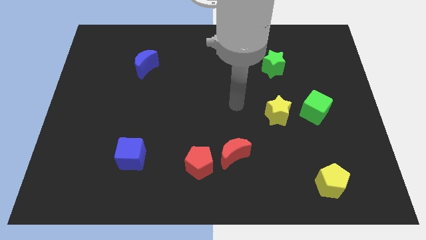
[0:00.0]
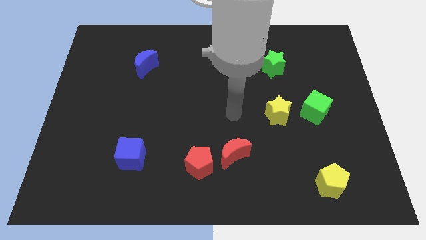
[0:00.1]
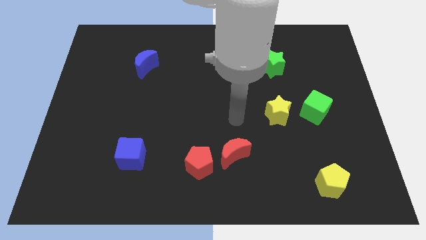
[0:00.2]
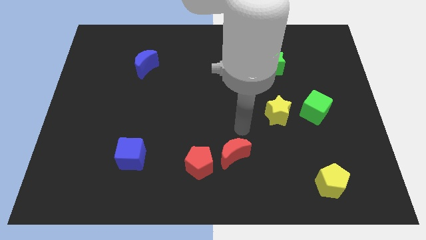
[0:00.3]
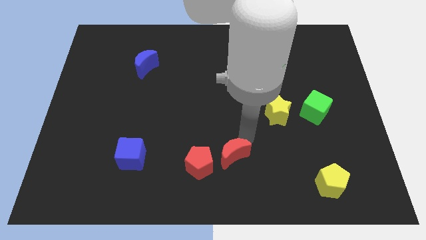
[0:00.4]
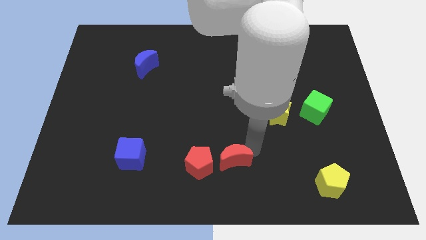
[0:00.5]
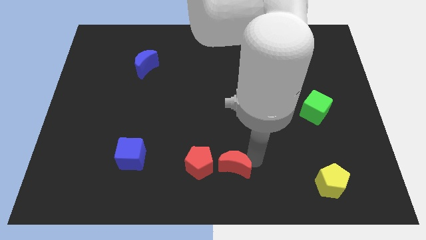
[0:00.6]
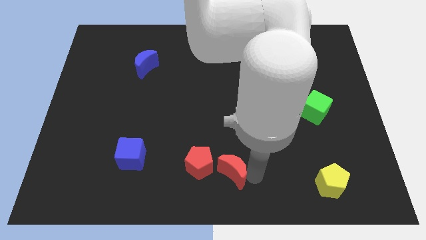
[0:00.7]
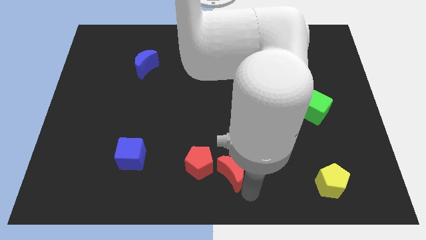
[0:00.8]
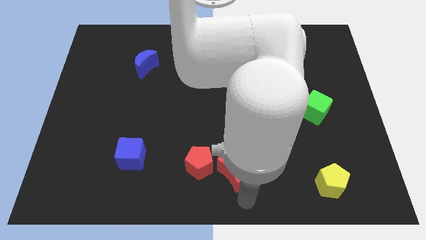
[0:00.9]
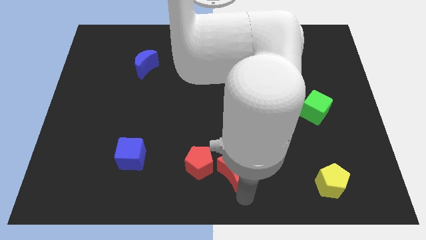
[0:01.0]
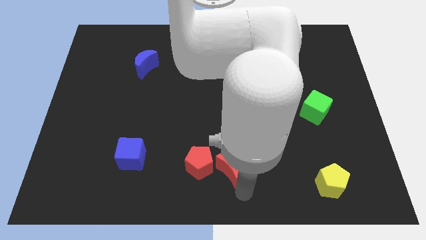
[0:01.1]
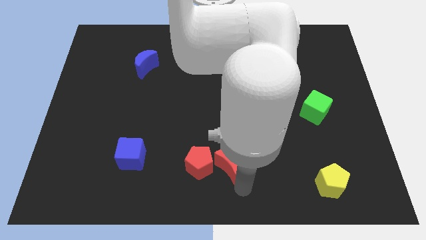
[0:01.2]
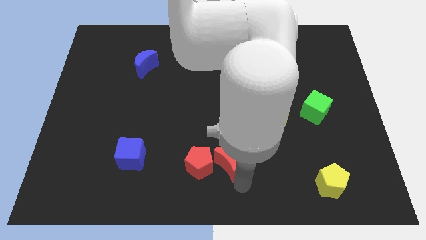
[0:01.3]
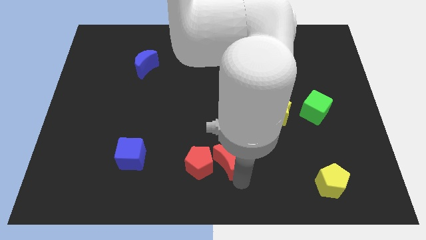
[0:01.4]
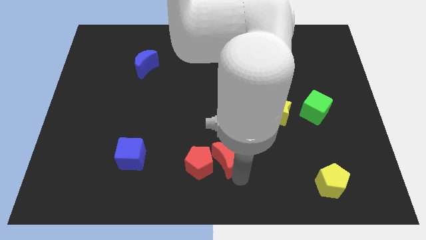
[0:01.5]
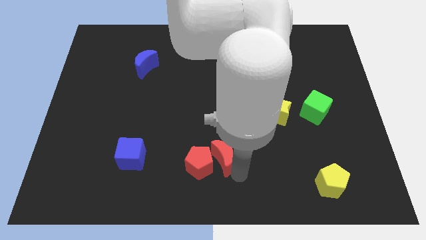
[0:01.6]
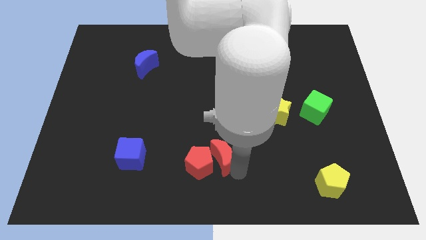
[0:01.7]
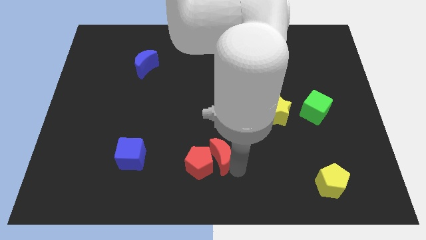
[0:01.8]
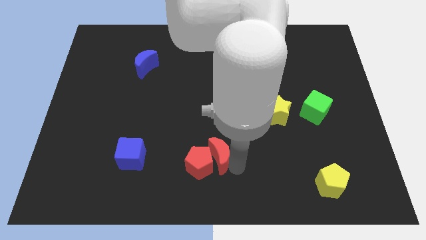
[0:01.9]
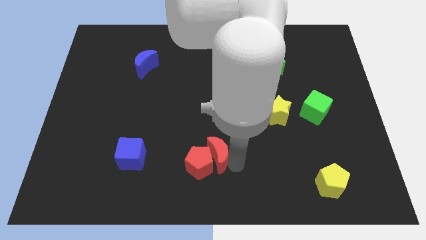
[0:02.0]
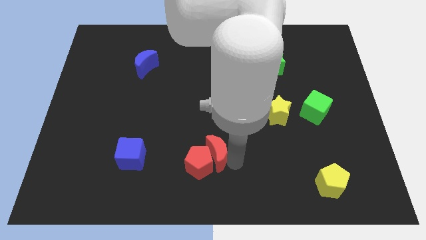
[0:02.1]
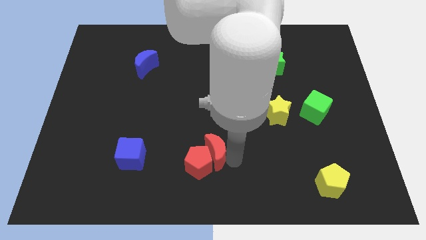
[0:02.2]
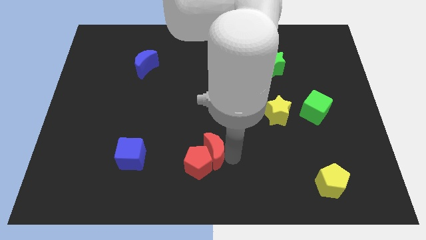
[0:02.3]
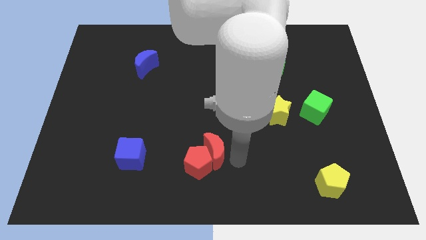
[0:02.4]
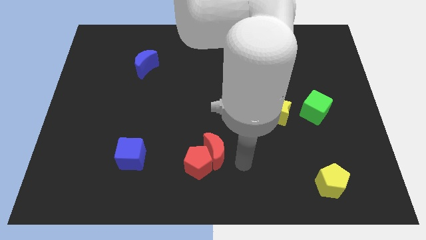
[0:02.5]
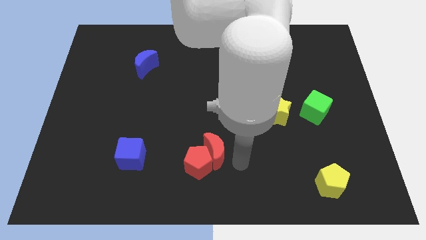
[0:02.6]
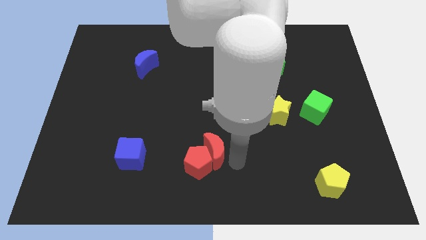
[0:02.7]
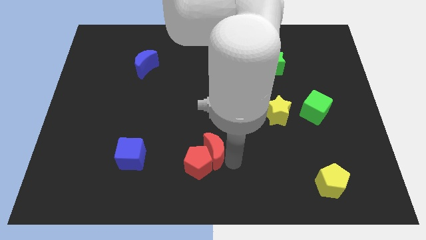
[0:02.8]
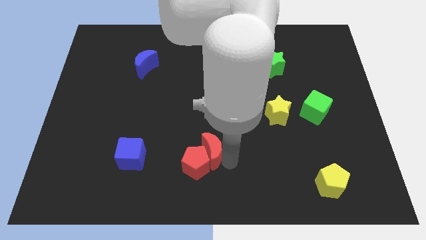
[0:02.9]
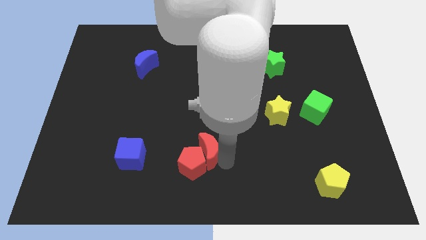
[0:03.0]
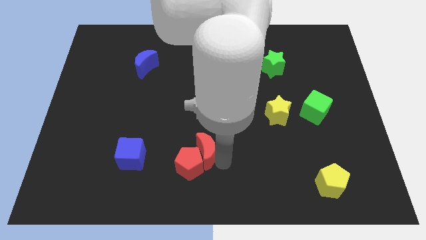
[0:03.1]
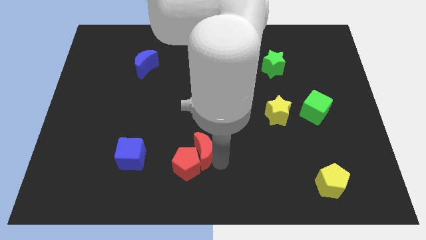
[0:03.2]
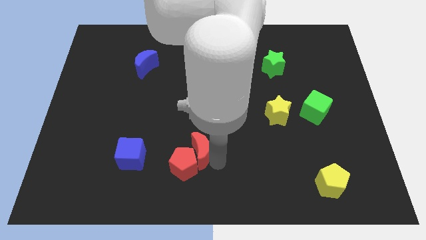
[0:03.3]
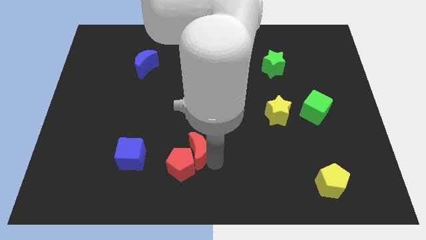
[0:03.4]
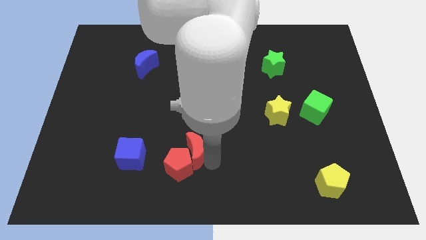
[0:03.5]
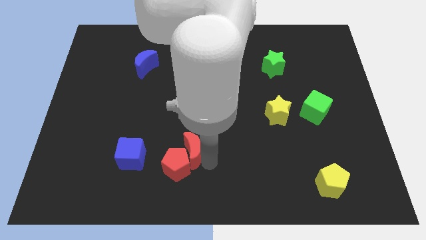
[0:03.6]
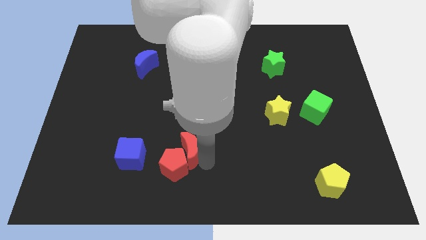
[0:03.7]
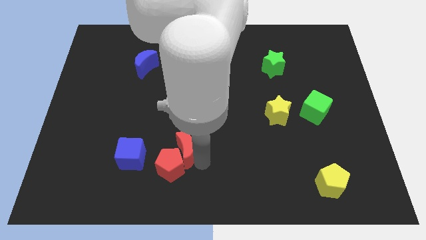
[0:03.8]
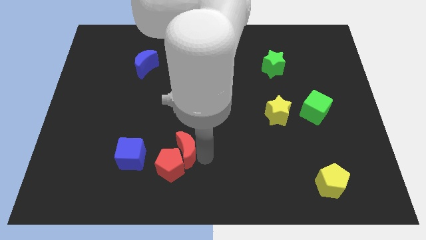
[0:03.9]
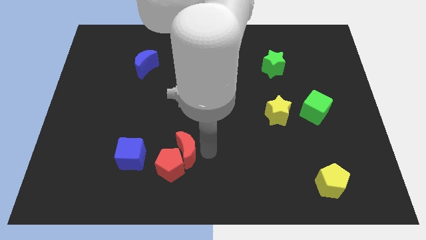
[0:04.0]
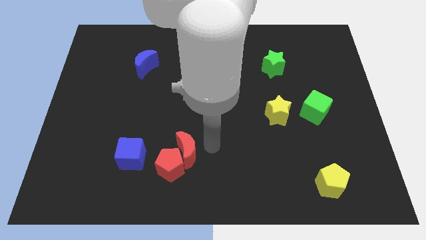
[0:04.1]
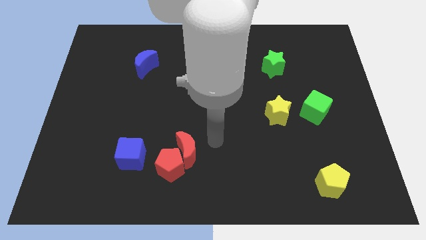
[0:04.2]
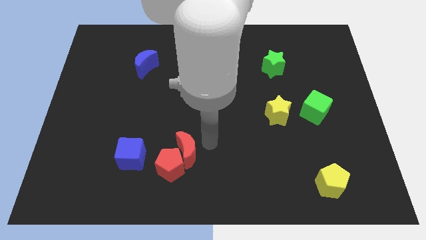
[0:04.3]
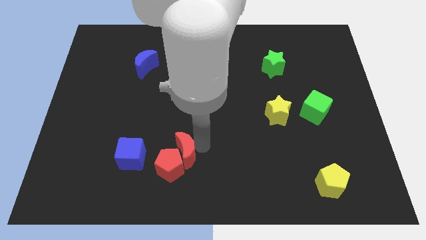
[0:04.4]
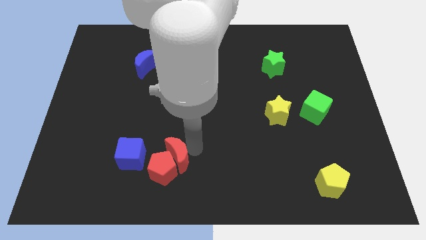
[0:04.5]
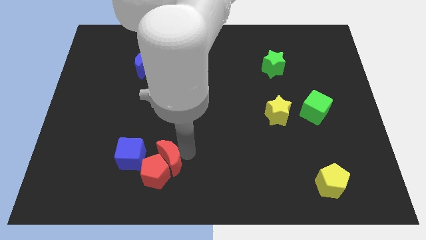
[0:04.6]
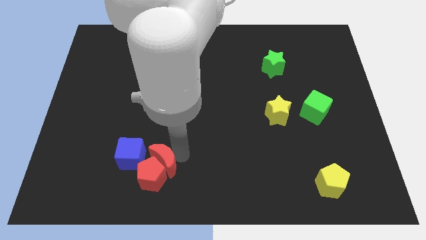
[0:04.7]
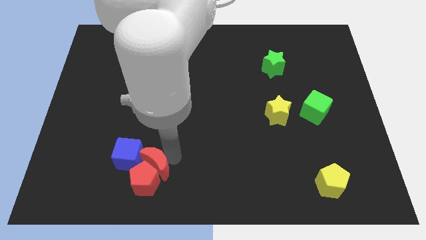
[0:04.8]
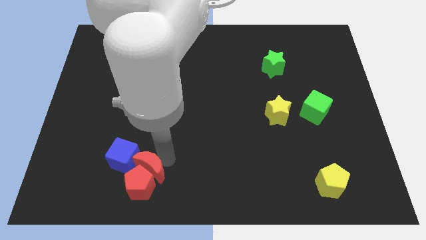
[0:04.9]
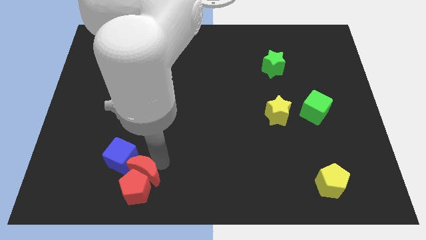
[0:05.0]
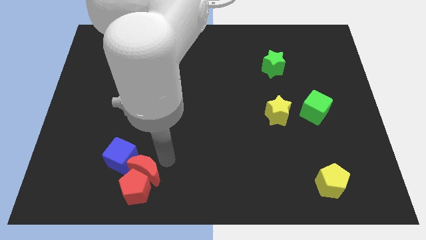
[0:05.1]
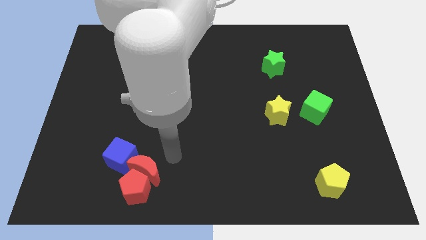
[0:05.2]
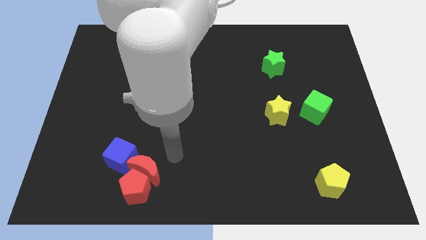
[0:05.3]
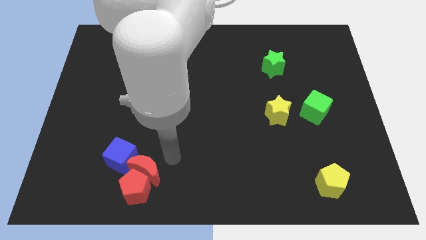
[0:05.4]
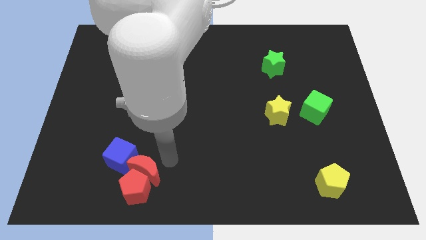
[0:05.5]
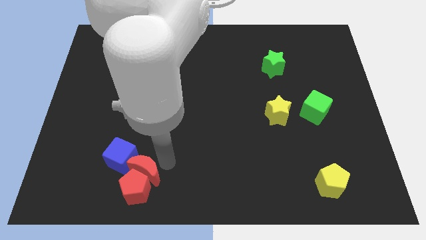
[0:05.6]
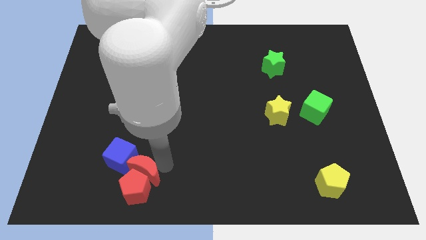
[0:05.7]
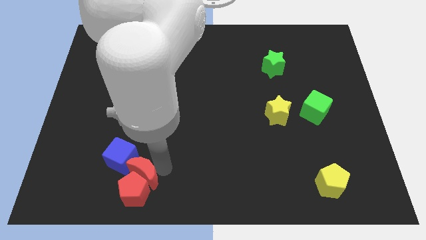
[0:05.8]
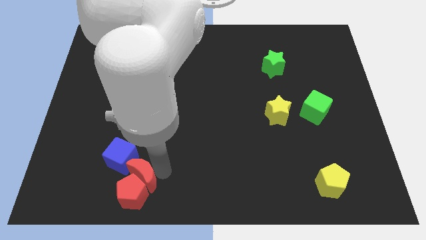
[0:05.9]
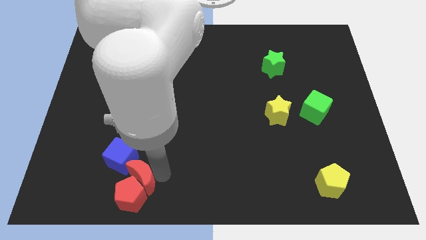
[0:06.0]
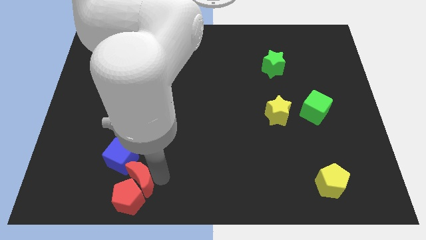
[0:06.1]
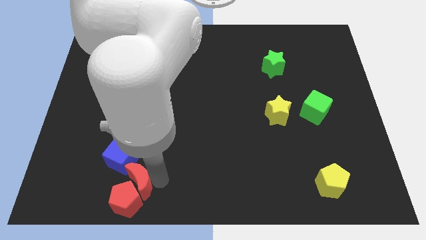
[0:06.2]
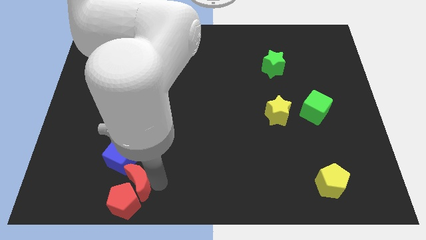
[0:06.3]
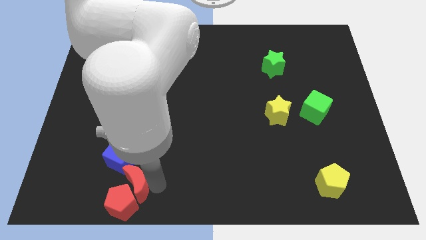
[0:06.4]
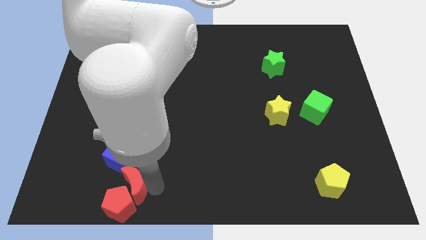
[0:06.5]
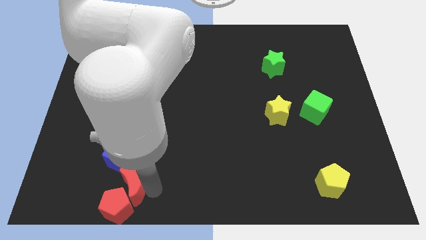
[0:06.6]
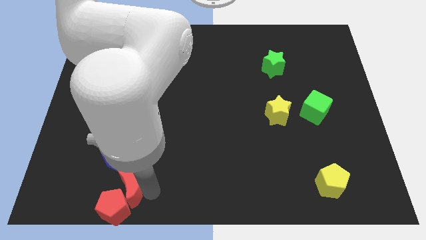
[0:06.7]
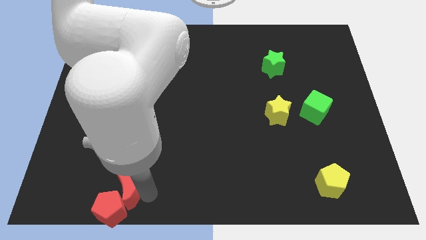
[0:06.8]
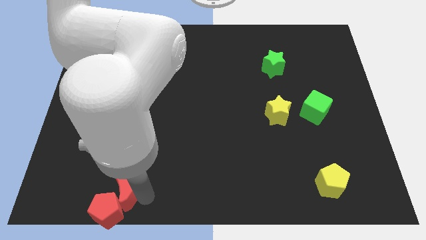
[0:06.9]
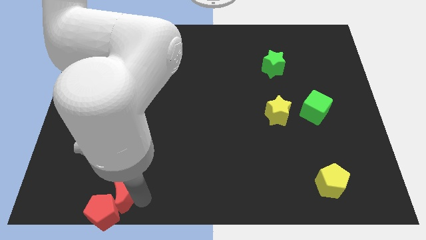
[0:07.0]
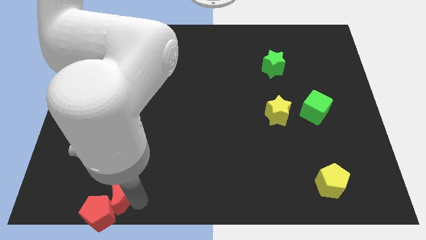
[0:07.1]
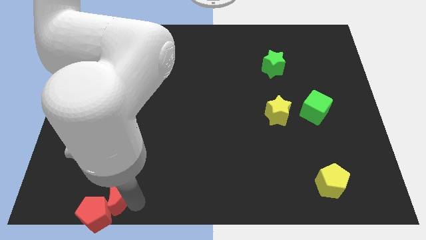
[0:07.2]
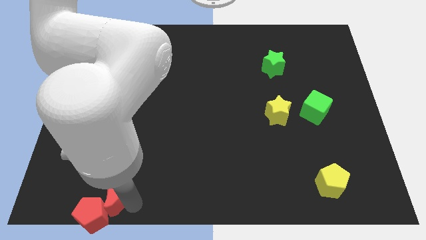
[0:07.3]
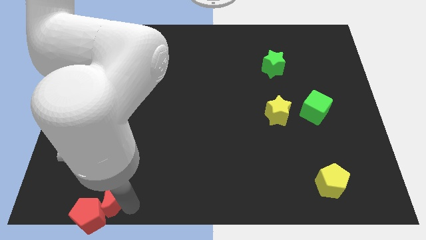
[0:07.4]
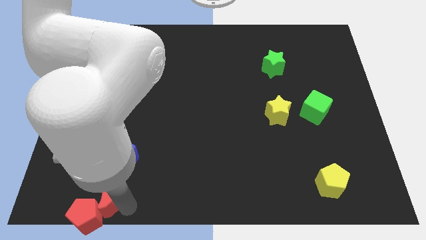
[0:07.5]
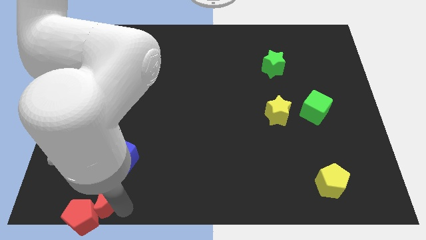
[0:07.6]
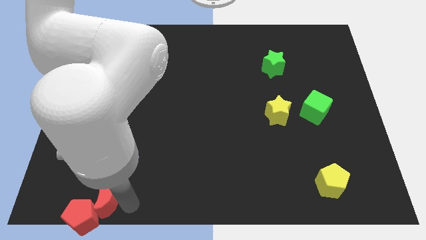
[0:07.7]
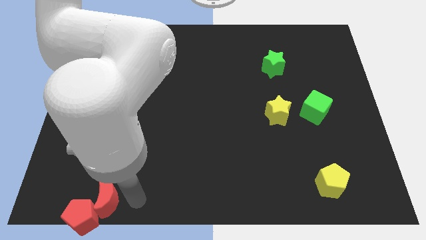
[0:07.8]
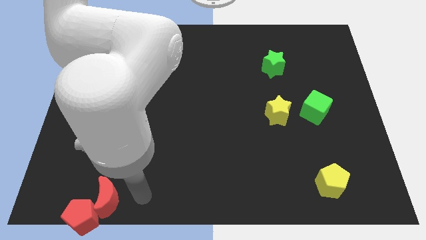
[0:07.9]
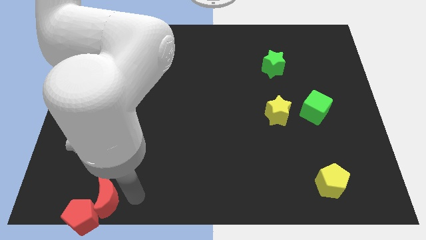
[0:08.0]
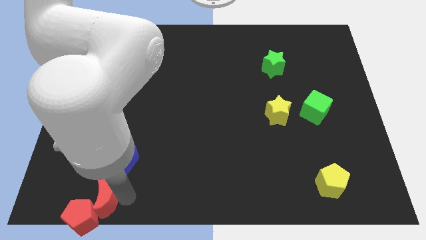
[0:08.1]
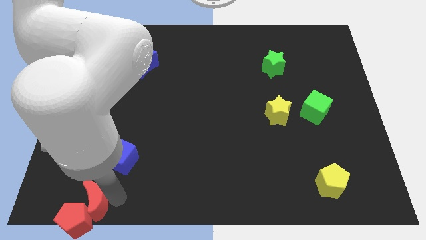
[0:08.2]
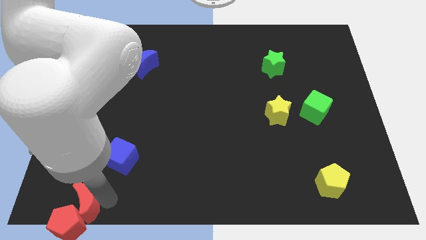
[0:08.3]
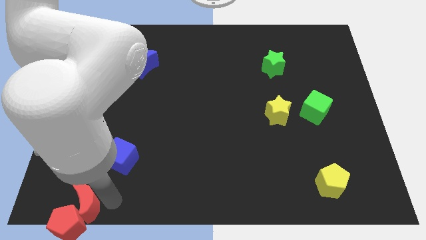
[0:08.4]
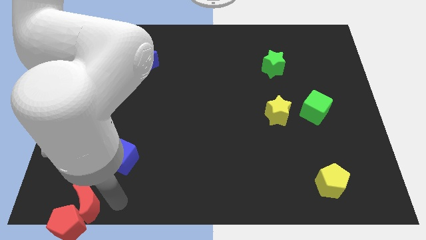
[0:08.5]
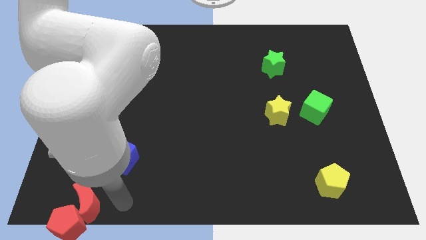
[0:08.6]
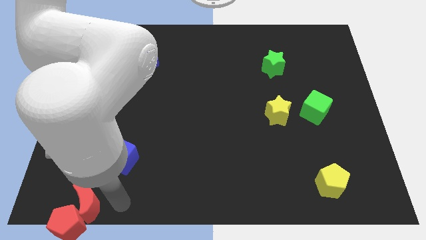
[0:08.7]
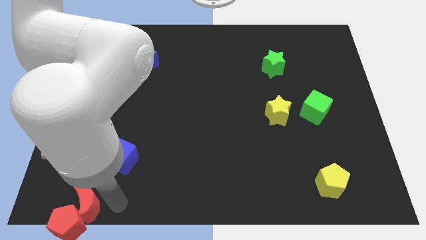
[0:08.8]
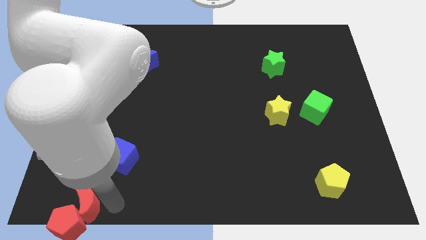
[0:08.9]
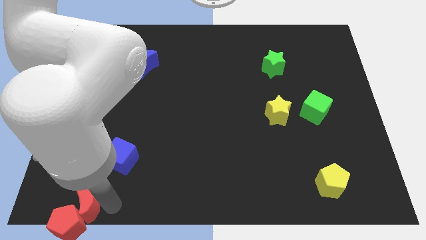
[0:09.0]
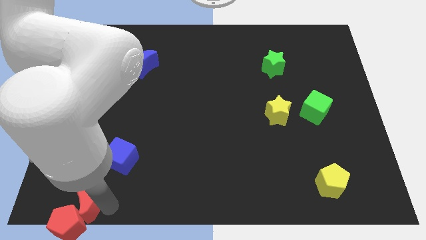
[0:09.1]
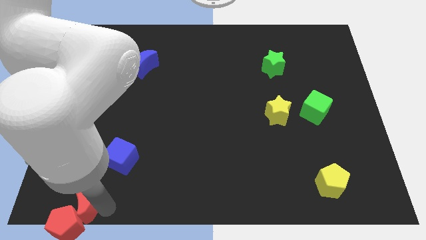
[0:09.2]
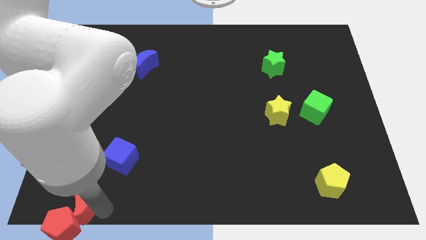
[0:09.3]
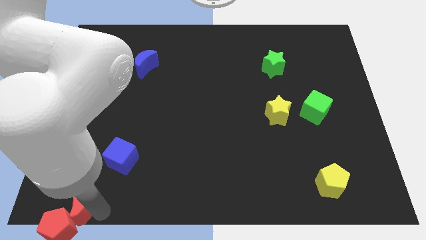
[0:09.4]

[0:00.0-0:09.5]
slide the red moon to the bottom left of the board
